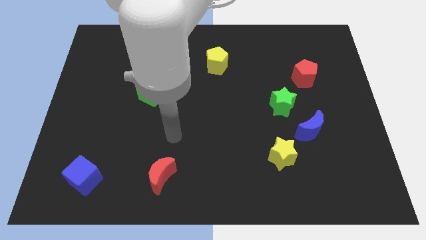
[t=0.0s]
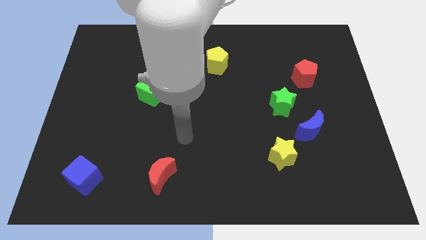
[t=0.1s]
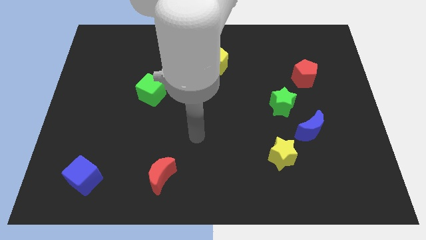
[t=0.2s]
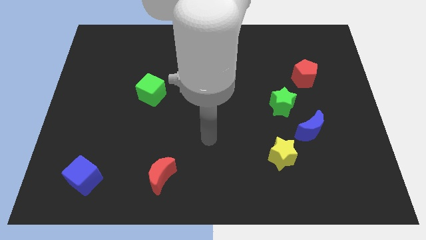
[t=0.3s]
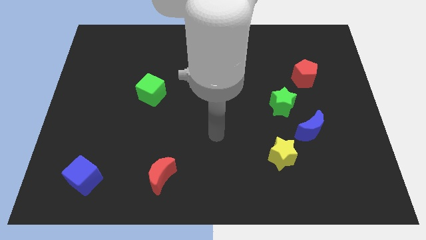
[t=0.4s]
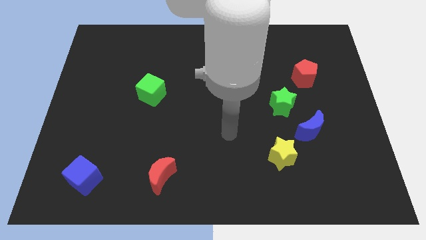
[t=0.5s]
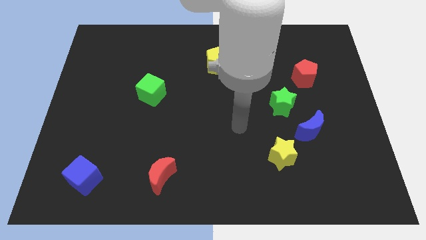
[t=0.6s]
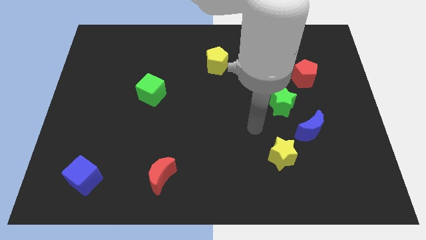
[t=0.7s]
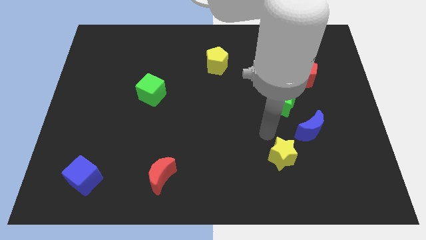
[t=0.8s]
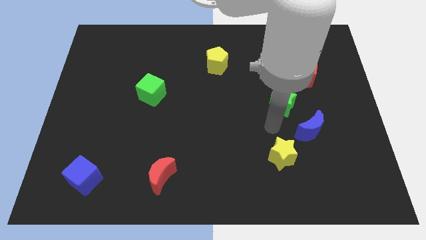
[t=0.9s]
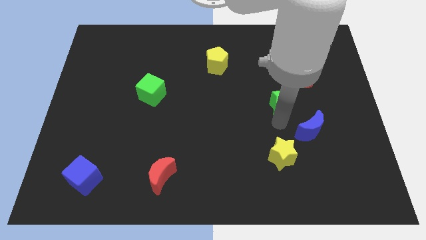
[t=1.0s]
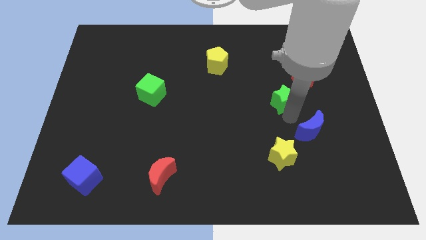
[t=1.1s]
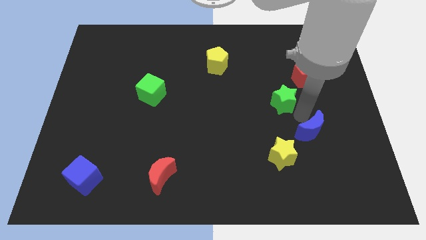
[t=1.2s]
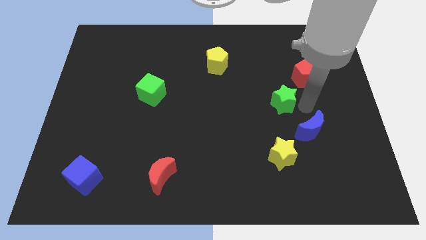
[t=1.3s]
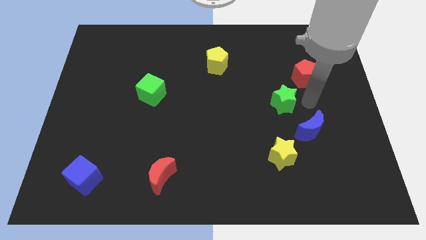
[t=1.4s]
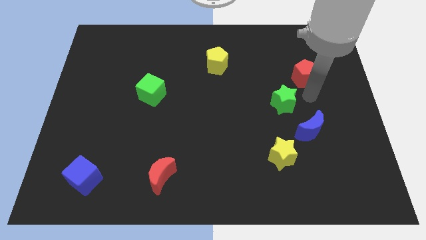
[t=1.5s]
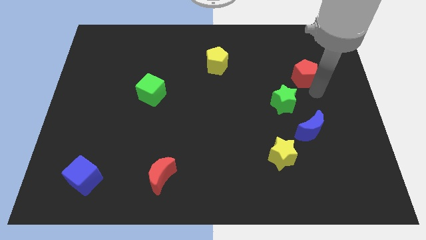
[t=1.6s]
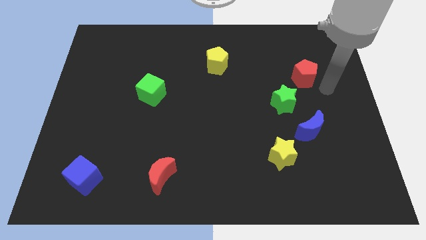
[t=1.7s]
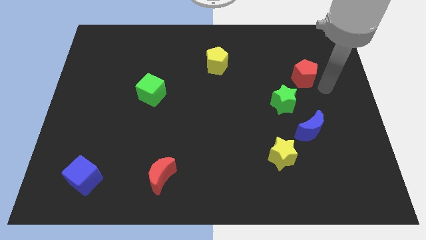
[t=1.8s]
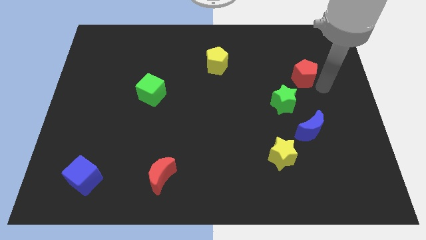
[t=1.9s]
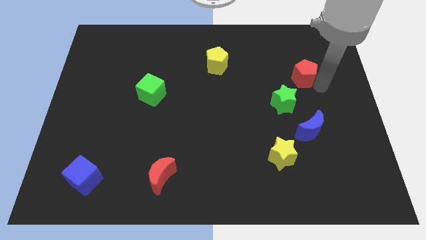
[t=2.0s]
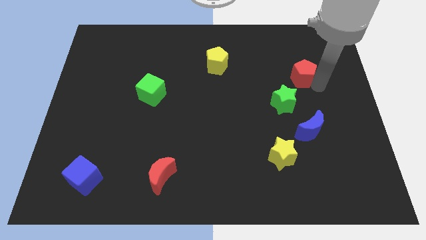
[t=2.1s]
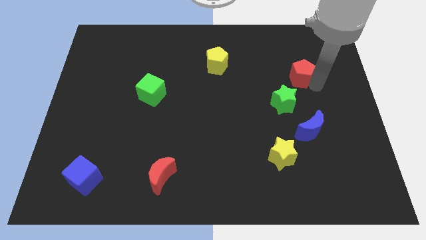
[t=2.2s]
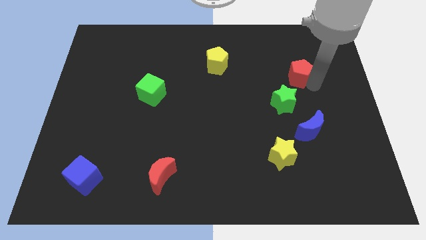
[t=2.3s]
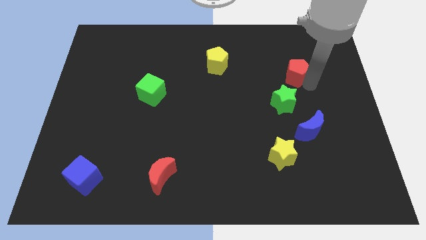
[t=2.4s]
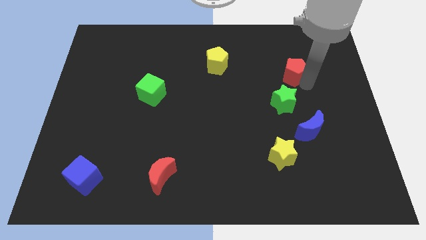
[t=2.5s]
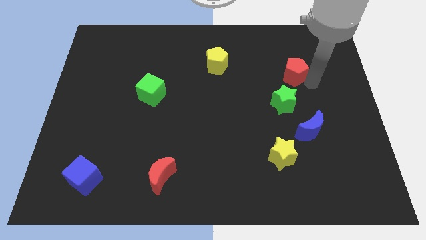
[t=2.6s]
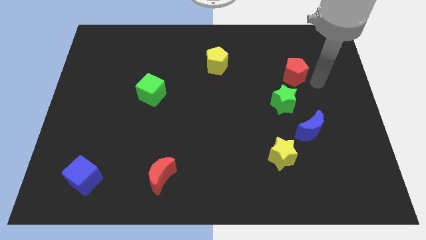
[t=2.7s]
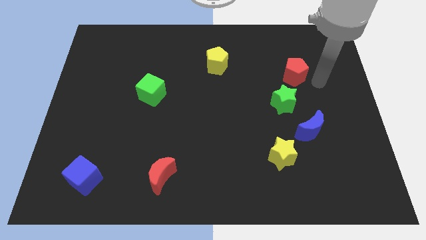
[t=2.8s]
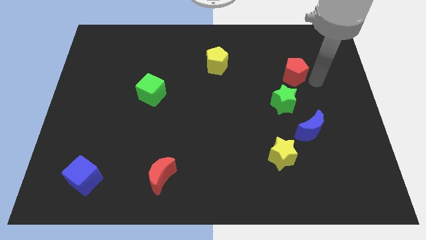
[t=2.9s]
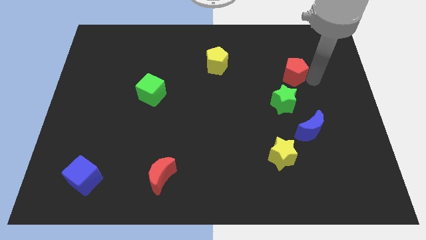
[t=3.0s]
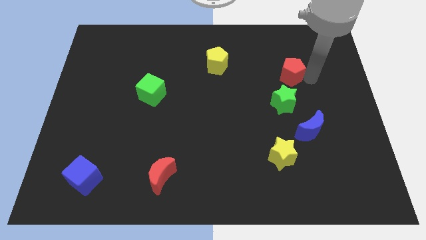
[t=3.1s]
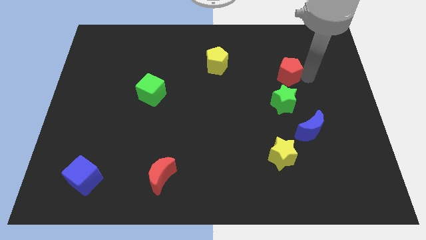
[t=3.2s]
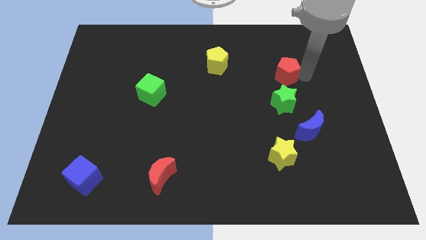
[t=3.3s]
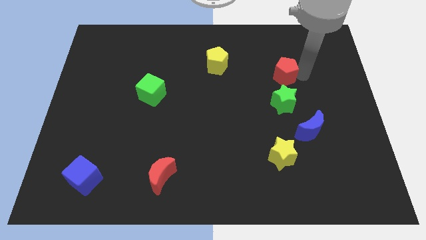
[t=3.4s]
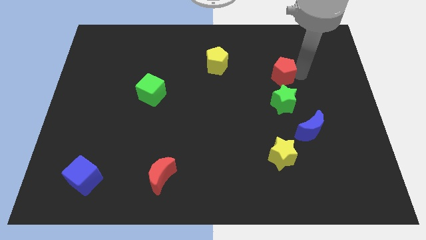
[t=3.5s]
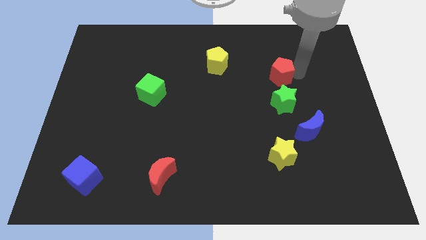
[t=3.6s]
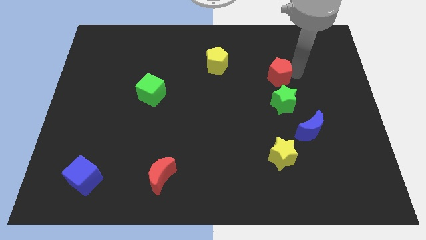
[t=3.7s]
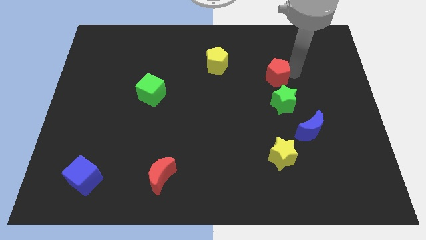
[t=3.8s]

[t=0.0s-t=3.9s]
push the red pentagon to the left slightly

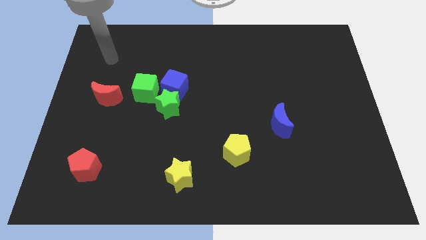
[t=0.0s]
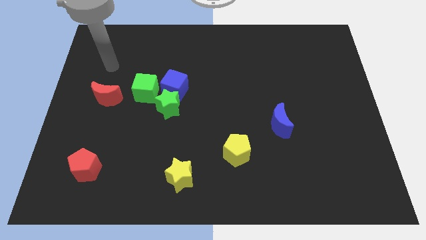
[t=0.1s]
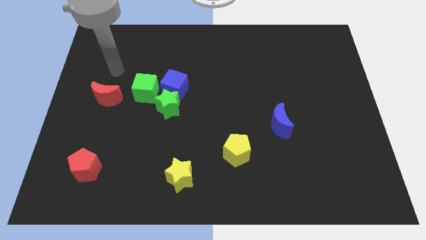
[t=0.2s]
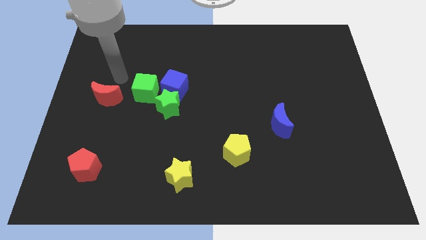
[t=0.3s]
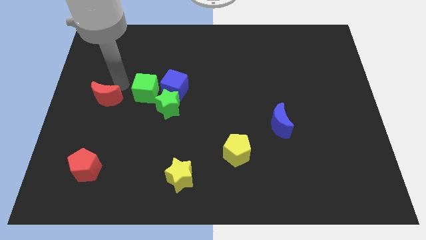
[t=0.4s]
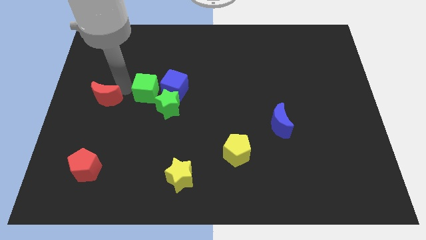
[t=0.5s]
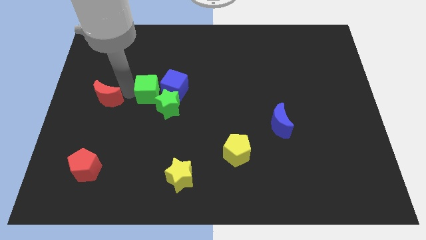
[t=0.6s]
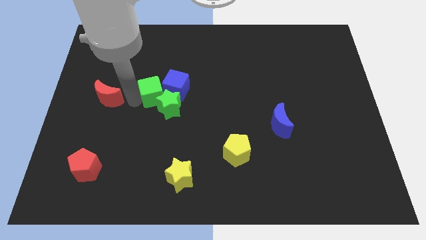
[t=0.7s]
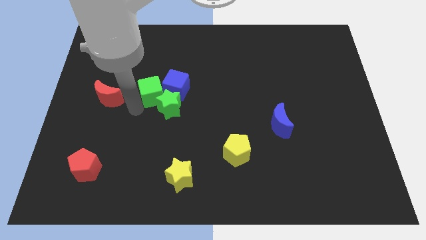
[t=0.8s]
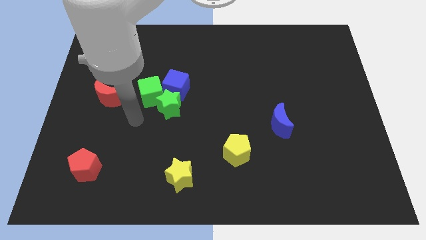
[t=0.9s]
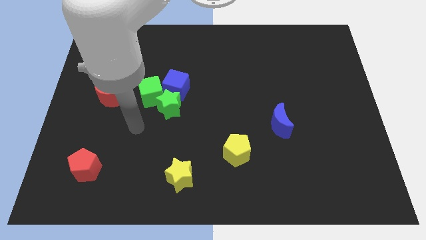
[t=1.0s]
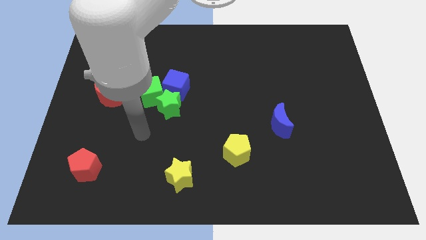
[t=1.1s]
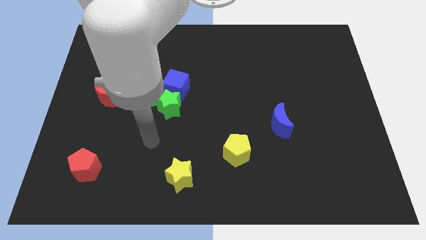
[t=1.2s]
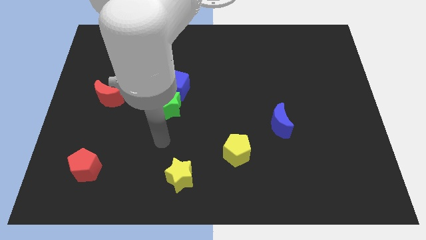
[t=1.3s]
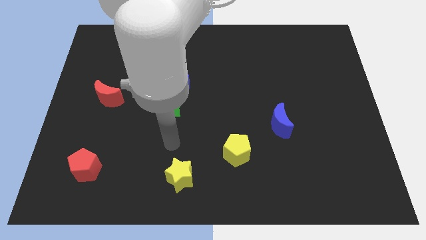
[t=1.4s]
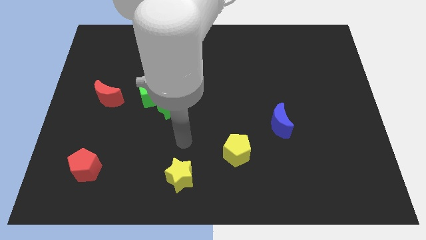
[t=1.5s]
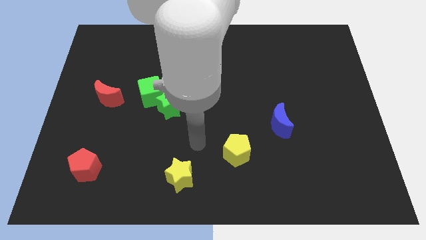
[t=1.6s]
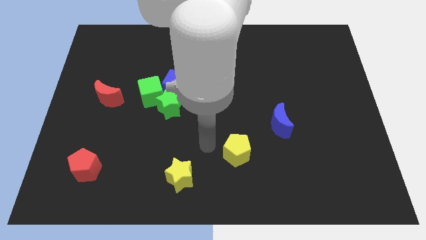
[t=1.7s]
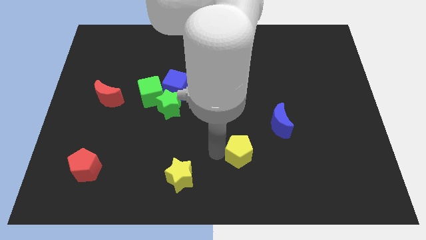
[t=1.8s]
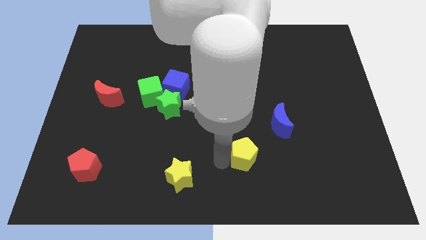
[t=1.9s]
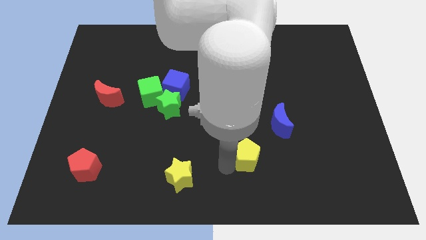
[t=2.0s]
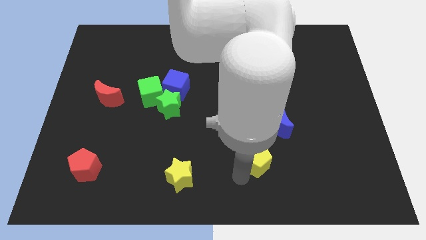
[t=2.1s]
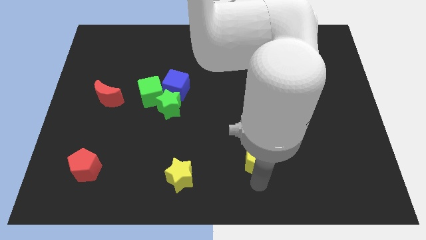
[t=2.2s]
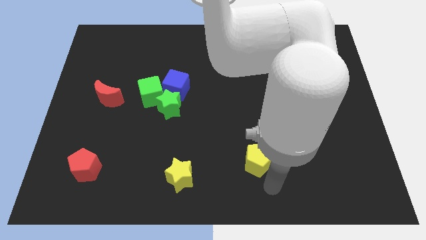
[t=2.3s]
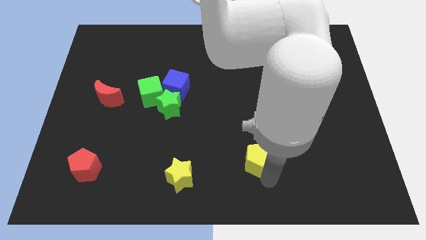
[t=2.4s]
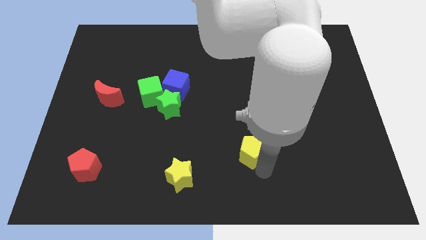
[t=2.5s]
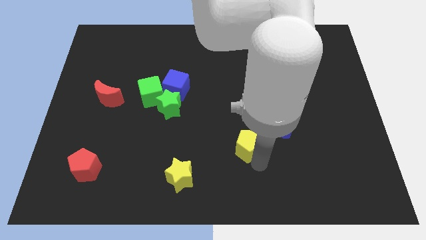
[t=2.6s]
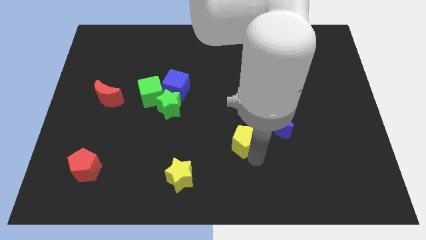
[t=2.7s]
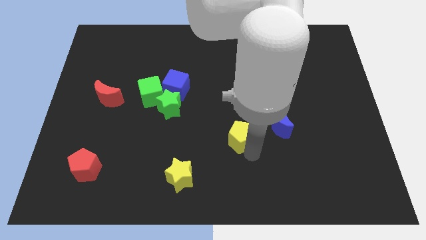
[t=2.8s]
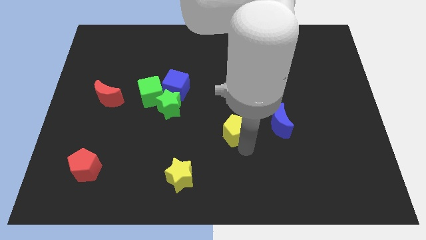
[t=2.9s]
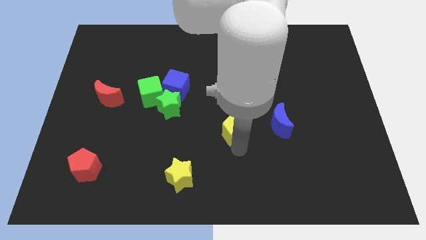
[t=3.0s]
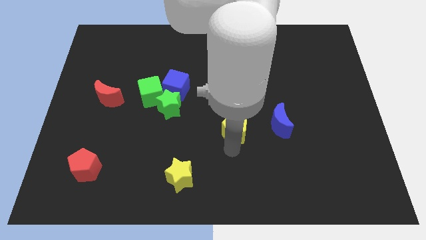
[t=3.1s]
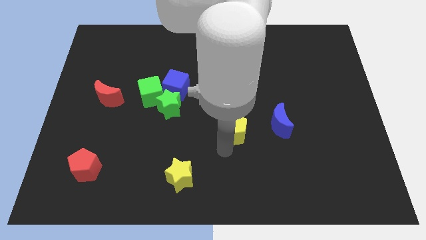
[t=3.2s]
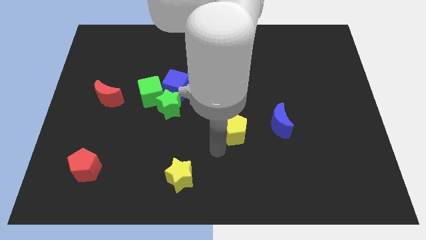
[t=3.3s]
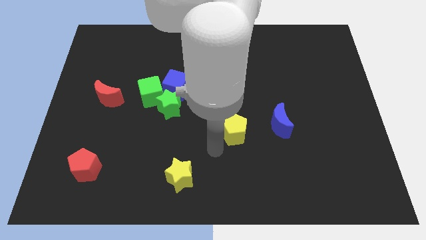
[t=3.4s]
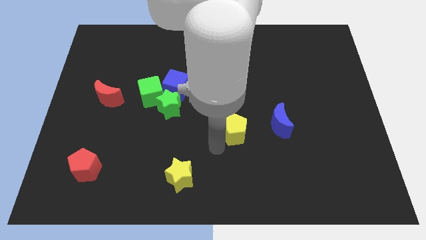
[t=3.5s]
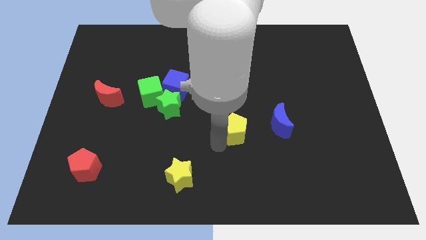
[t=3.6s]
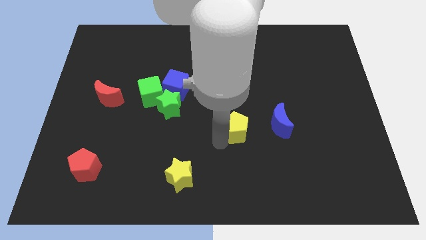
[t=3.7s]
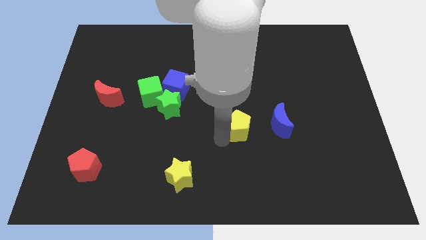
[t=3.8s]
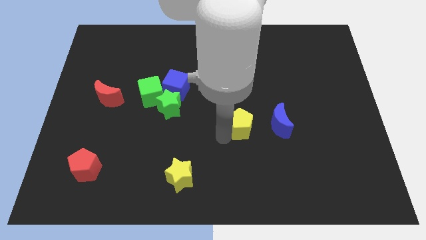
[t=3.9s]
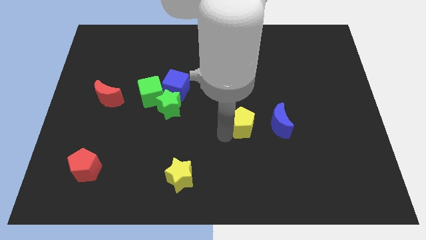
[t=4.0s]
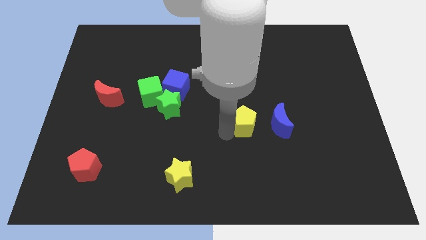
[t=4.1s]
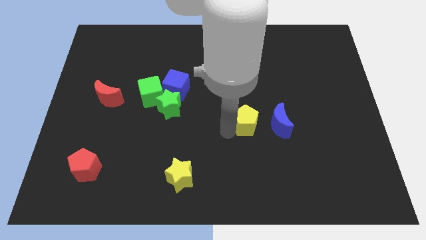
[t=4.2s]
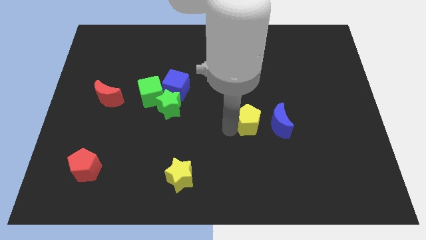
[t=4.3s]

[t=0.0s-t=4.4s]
slightly push the yellow pentagon upwards and right diagonally
